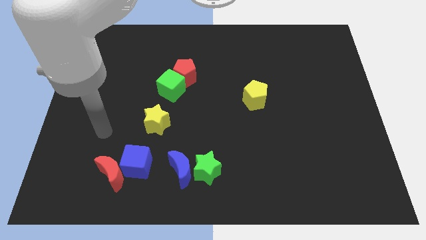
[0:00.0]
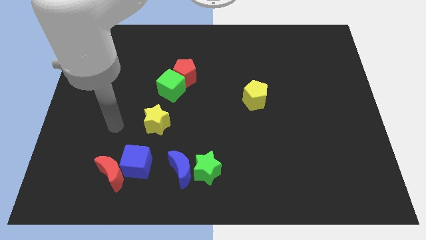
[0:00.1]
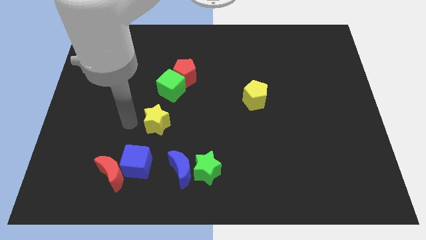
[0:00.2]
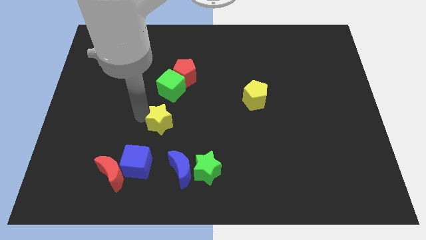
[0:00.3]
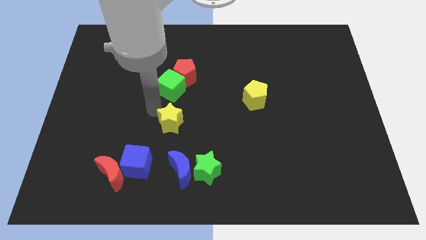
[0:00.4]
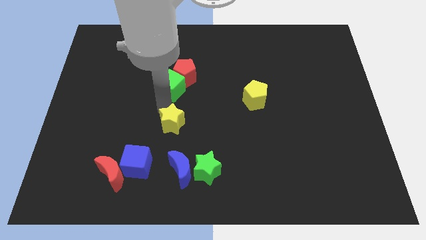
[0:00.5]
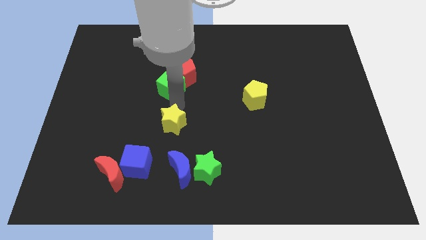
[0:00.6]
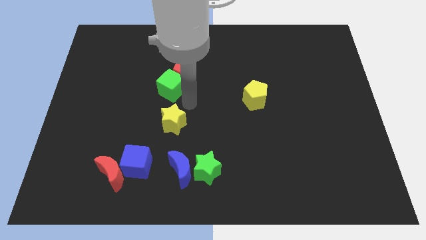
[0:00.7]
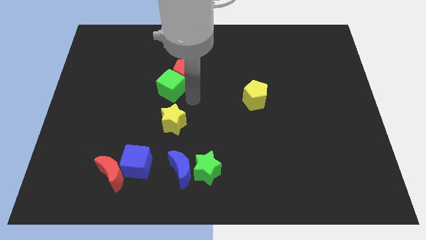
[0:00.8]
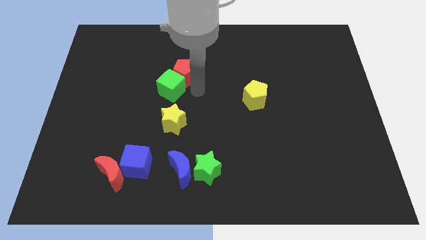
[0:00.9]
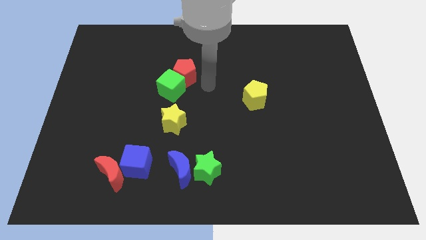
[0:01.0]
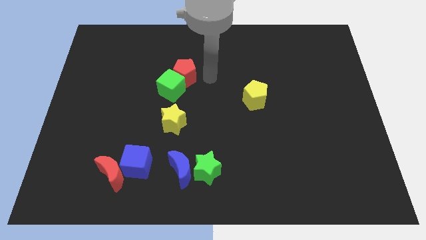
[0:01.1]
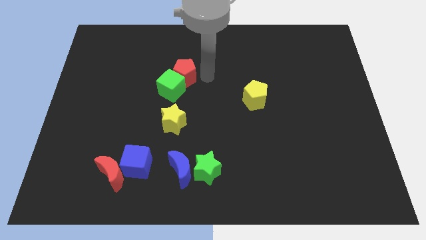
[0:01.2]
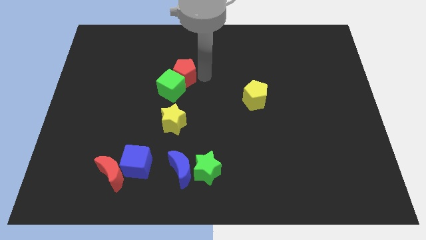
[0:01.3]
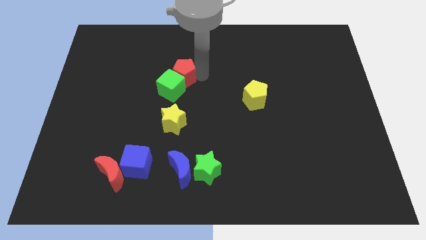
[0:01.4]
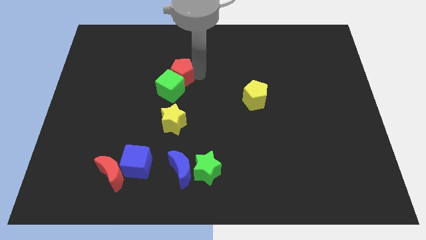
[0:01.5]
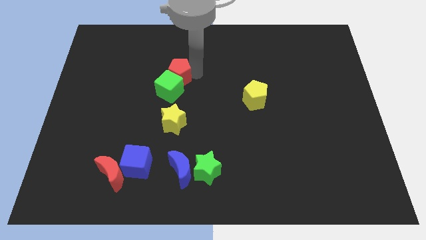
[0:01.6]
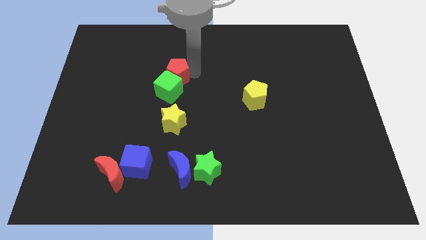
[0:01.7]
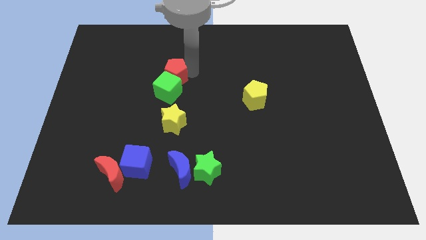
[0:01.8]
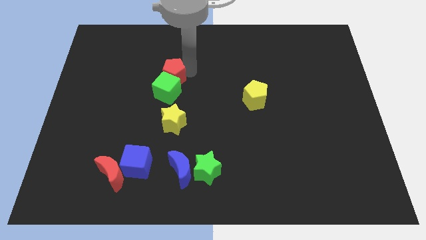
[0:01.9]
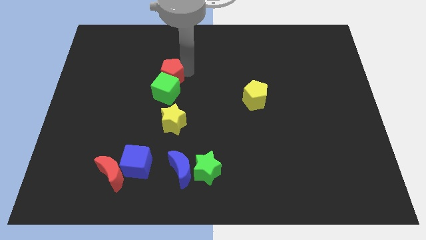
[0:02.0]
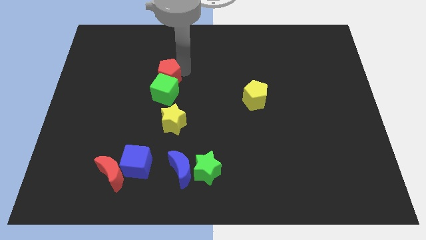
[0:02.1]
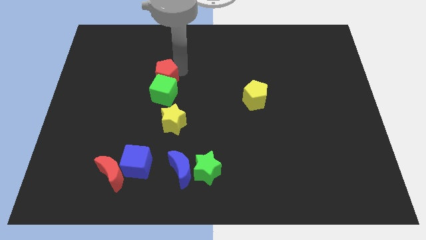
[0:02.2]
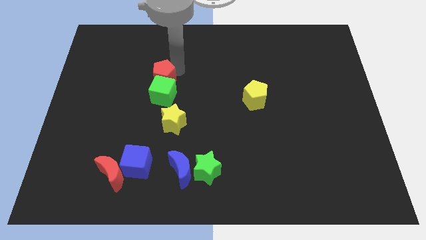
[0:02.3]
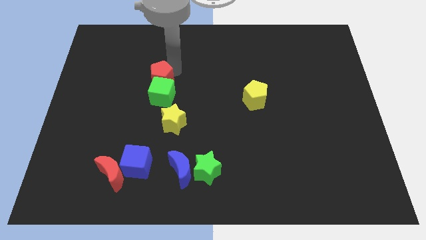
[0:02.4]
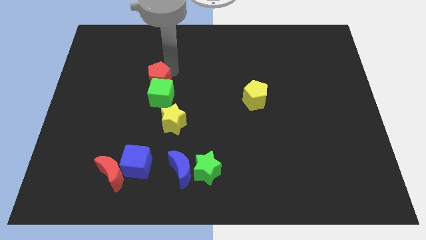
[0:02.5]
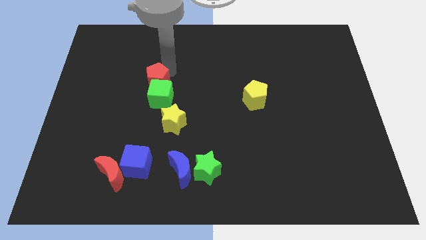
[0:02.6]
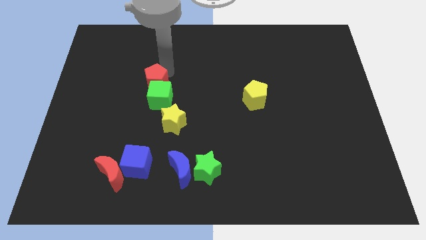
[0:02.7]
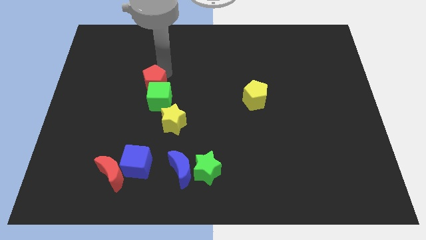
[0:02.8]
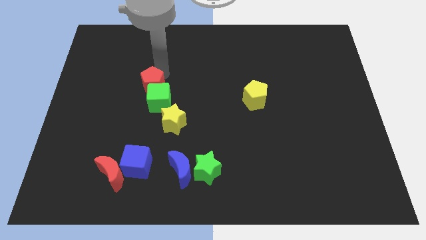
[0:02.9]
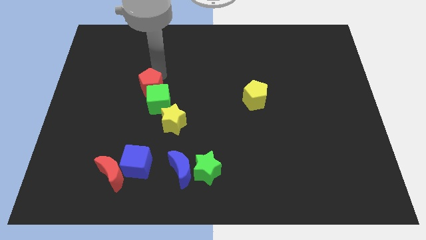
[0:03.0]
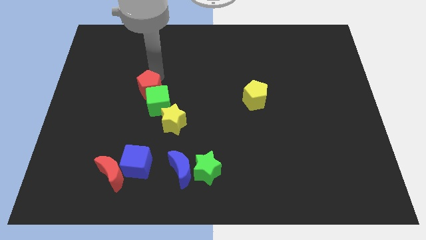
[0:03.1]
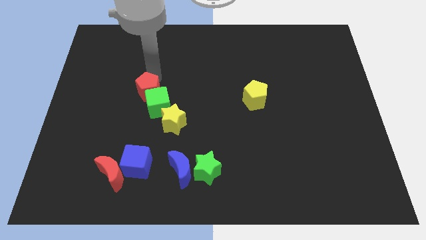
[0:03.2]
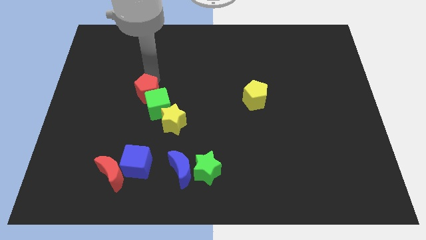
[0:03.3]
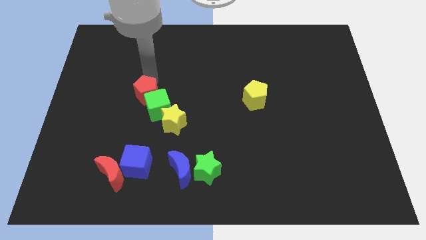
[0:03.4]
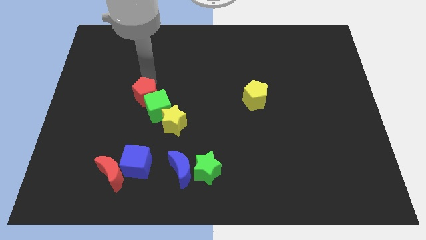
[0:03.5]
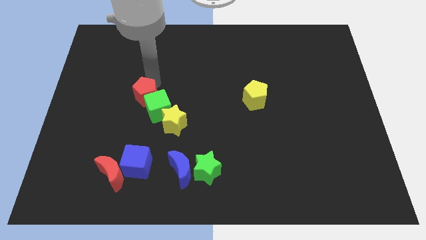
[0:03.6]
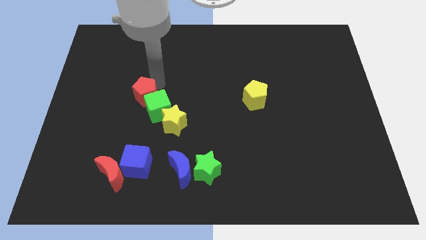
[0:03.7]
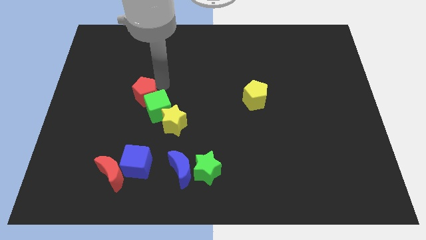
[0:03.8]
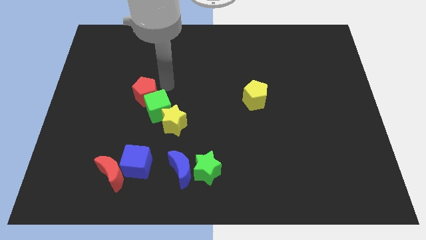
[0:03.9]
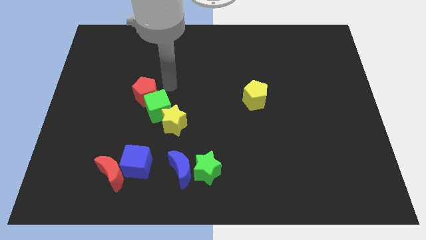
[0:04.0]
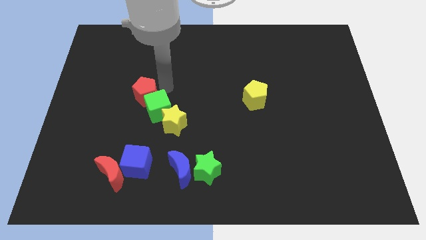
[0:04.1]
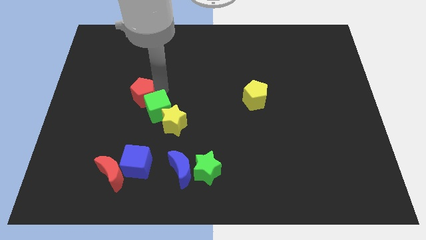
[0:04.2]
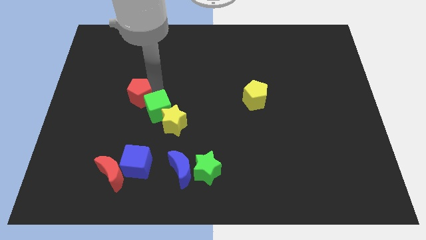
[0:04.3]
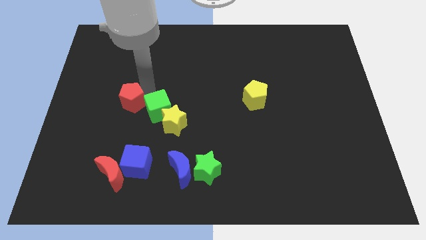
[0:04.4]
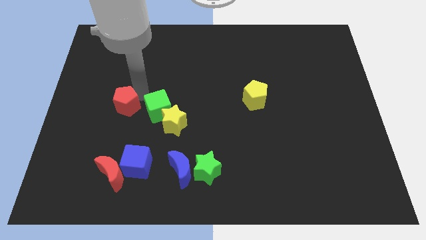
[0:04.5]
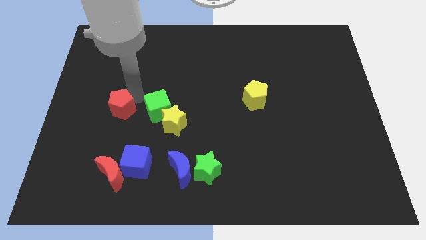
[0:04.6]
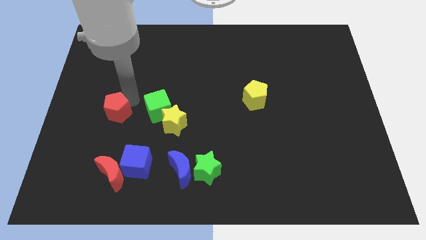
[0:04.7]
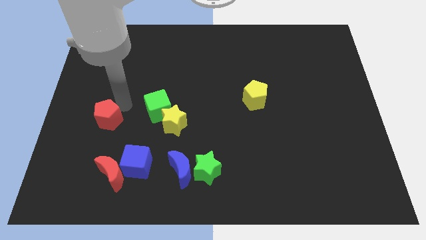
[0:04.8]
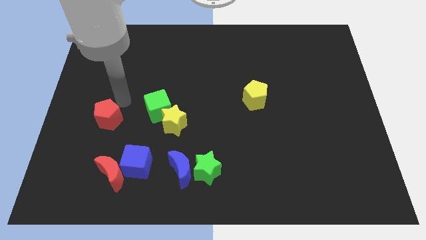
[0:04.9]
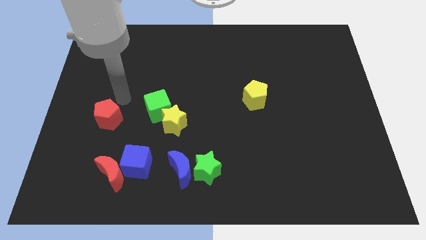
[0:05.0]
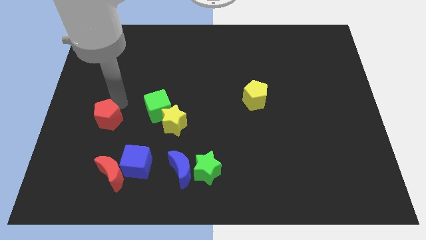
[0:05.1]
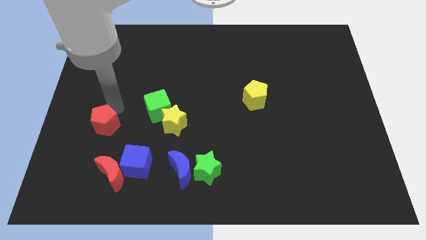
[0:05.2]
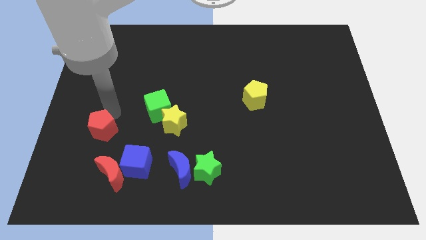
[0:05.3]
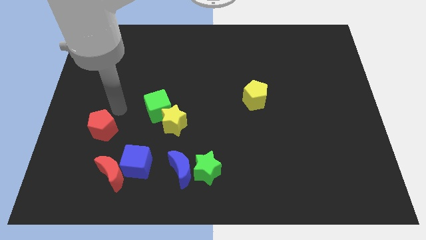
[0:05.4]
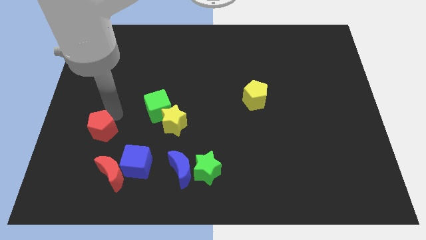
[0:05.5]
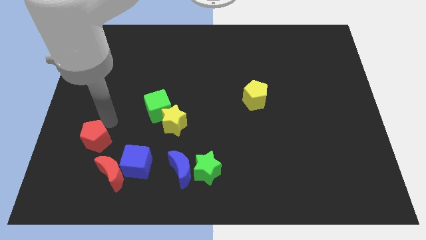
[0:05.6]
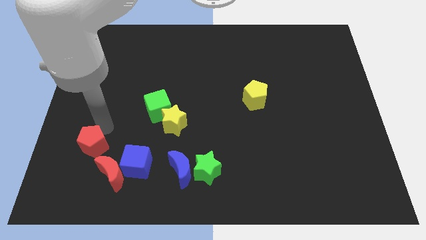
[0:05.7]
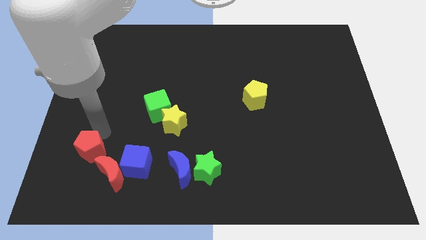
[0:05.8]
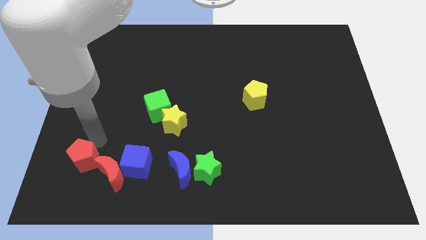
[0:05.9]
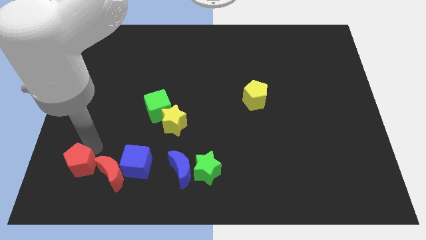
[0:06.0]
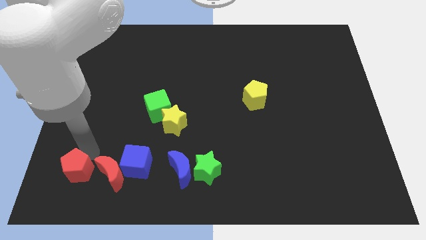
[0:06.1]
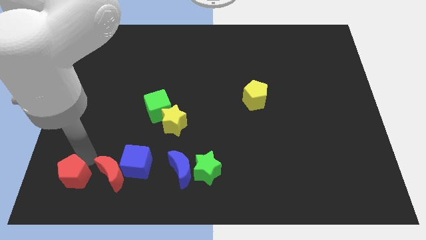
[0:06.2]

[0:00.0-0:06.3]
slide the red pentagon to the bottom left corner
